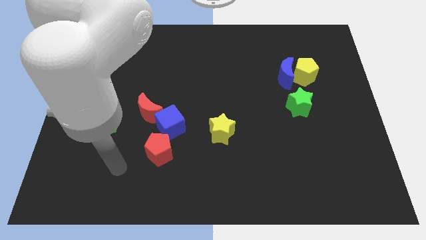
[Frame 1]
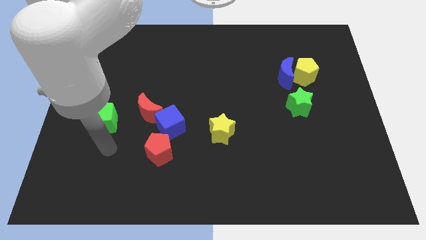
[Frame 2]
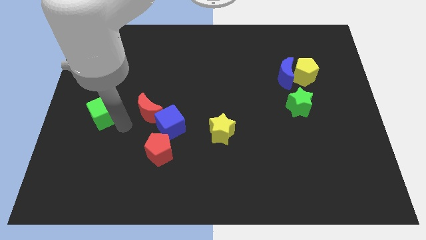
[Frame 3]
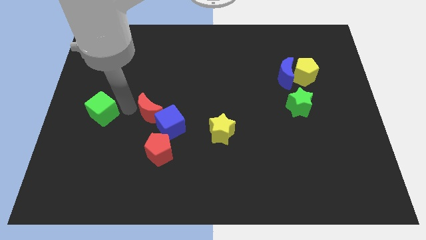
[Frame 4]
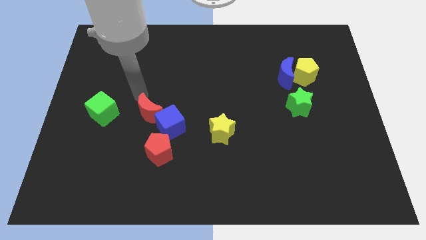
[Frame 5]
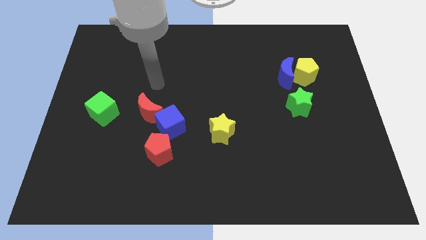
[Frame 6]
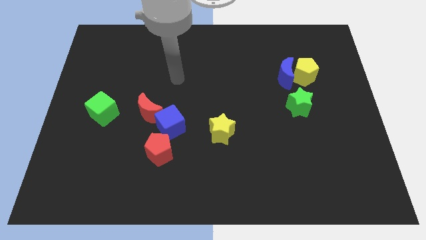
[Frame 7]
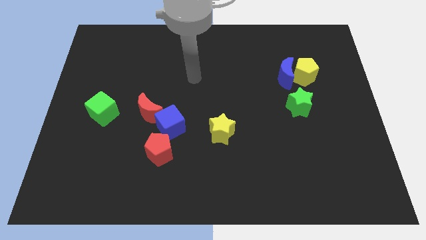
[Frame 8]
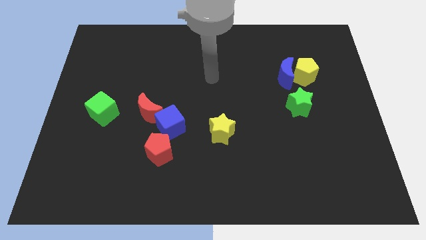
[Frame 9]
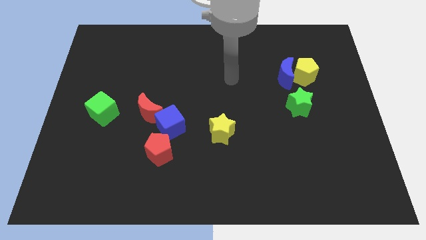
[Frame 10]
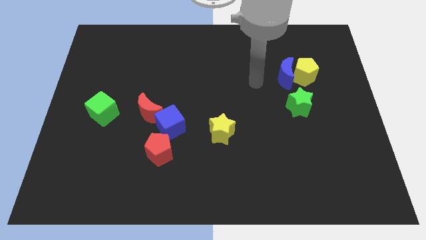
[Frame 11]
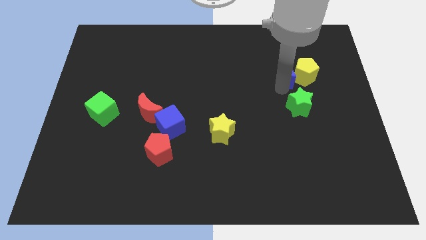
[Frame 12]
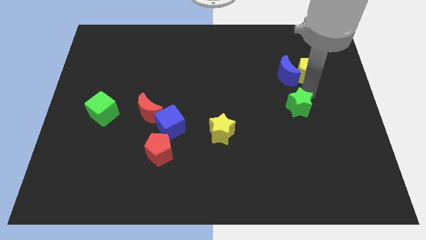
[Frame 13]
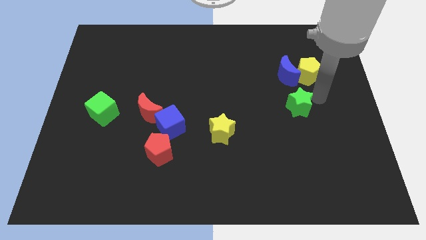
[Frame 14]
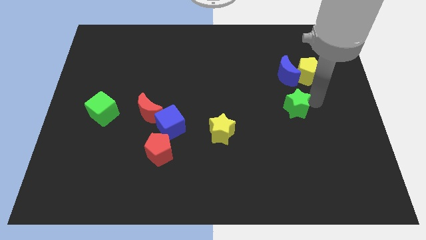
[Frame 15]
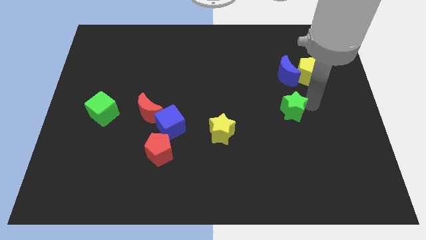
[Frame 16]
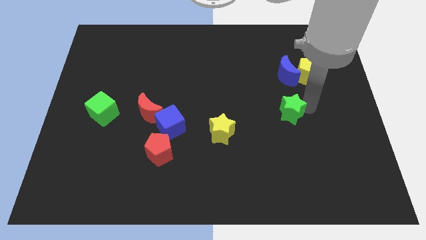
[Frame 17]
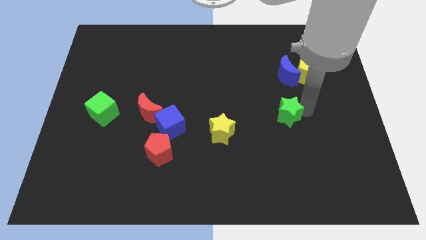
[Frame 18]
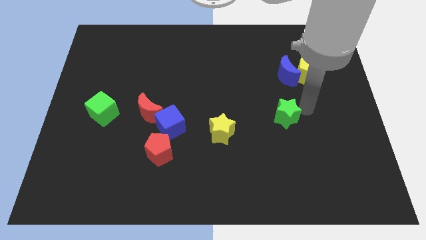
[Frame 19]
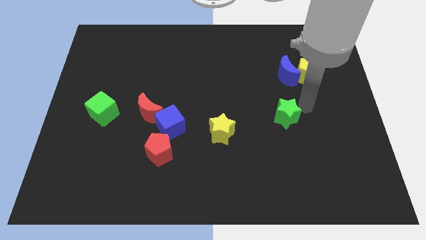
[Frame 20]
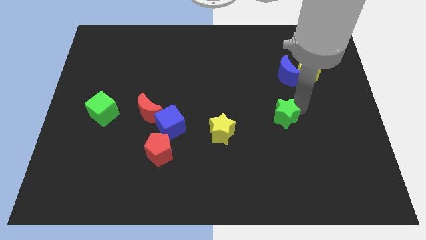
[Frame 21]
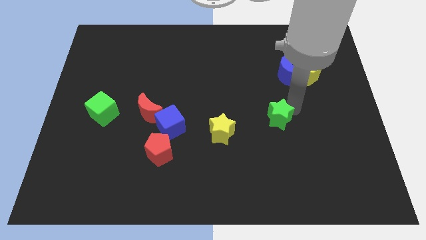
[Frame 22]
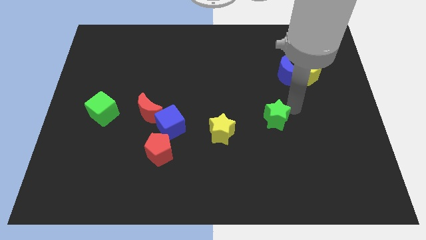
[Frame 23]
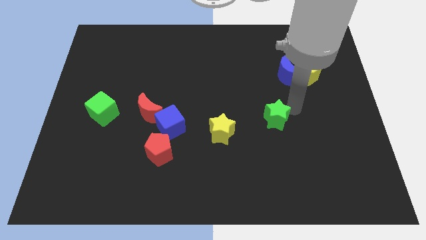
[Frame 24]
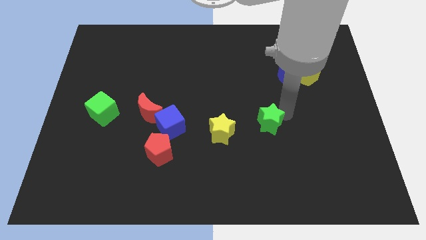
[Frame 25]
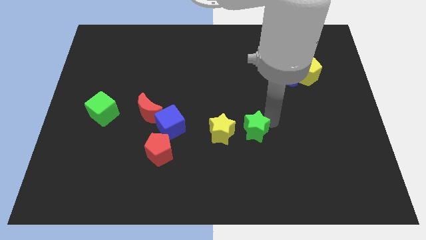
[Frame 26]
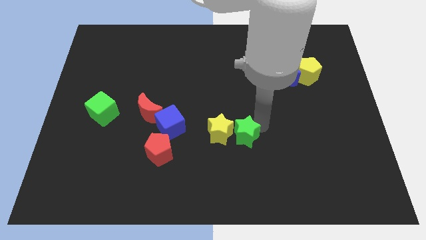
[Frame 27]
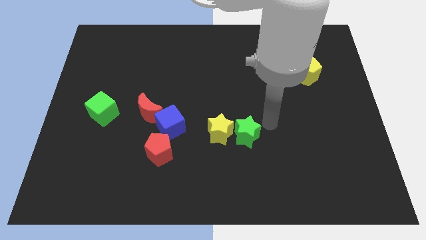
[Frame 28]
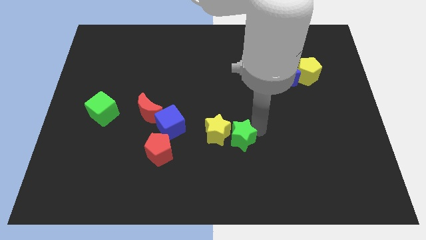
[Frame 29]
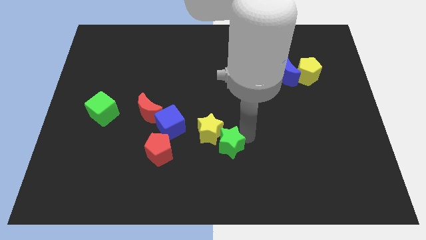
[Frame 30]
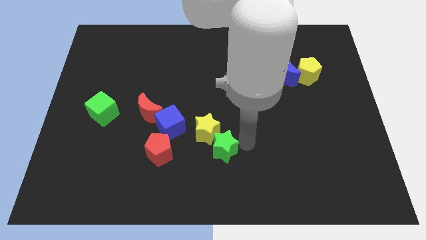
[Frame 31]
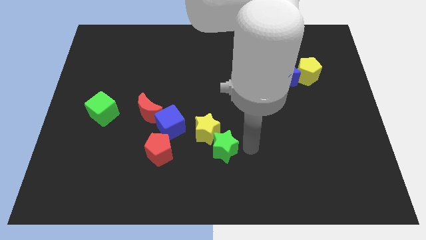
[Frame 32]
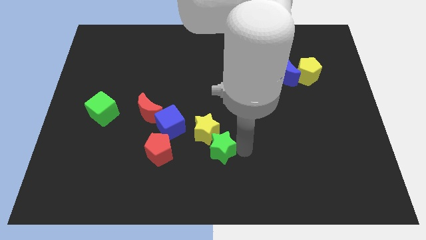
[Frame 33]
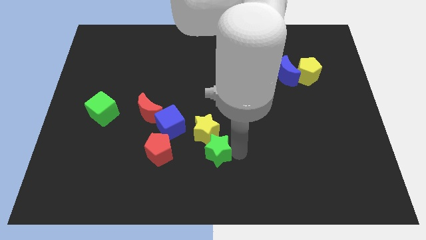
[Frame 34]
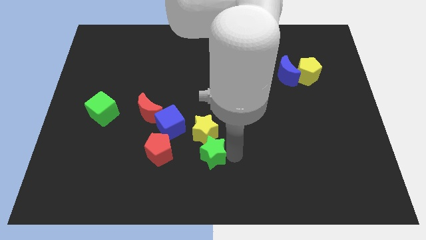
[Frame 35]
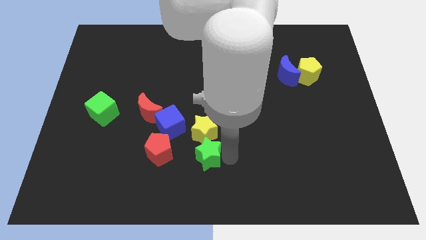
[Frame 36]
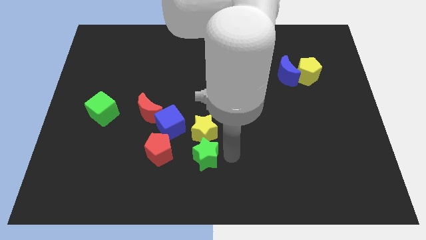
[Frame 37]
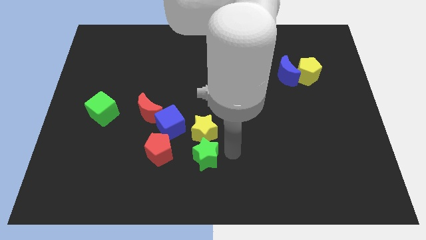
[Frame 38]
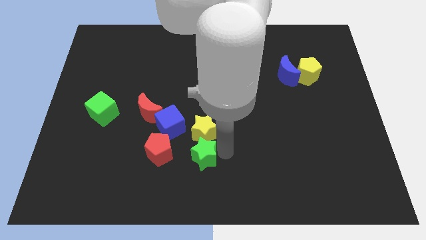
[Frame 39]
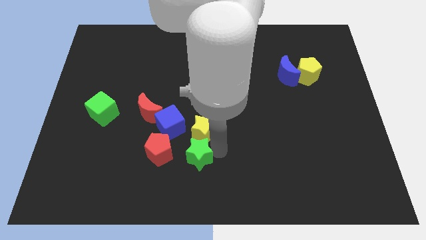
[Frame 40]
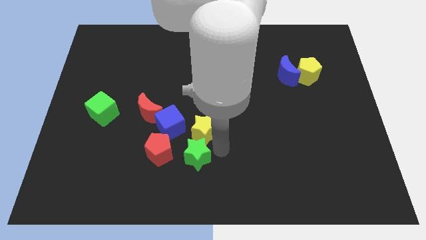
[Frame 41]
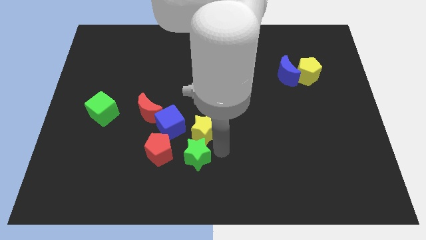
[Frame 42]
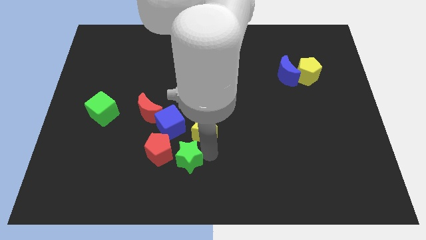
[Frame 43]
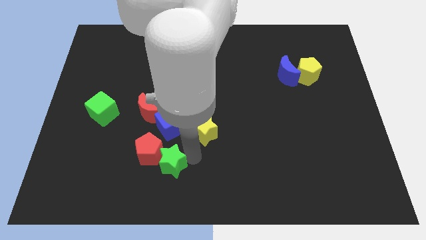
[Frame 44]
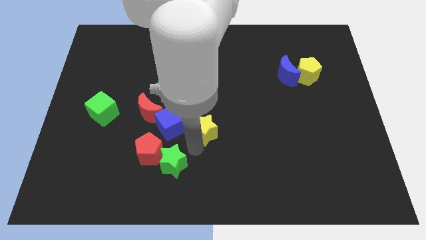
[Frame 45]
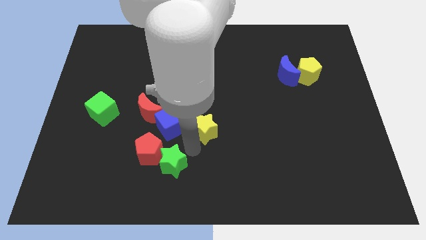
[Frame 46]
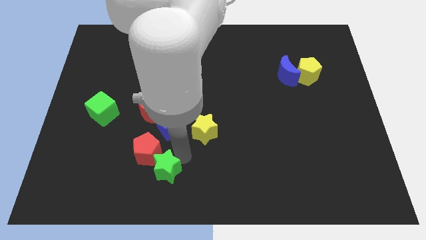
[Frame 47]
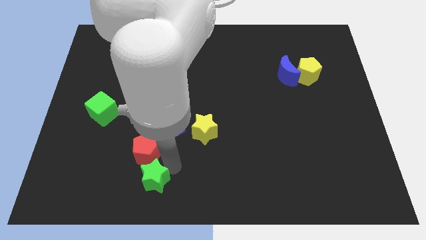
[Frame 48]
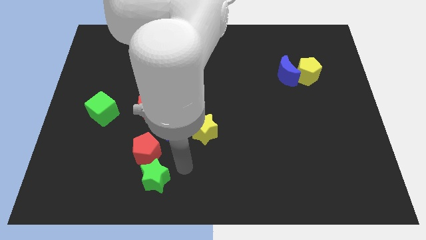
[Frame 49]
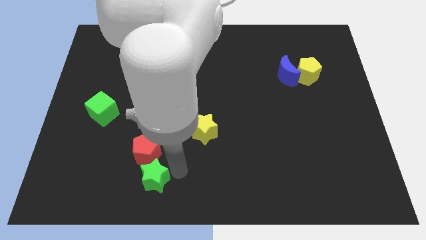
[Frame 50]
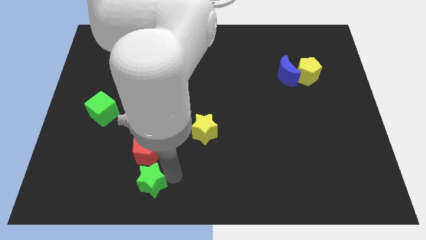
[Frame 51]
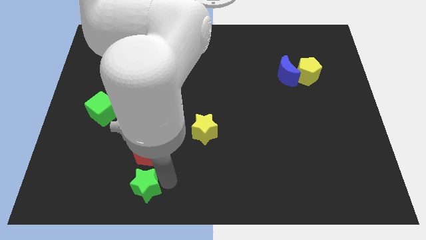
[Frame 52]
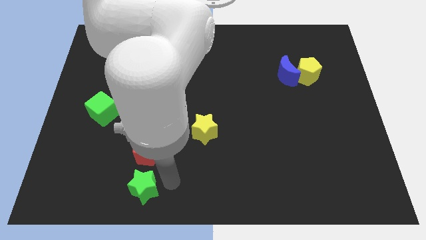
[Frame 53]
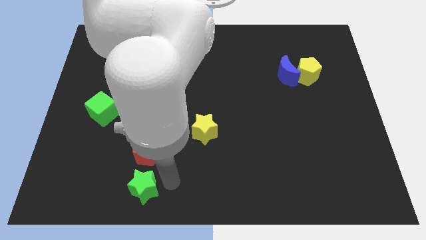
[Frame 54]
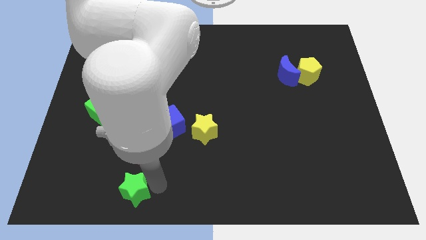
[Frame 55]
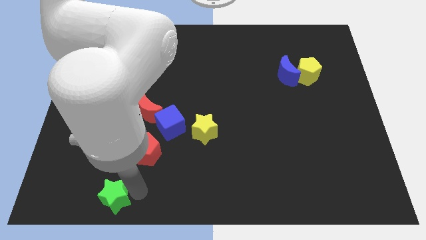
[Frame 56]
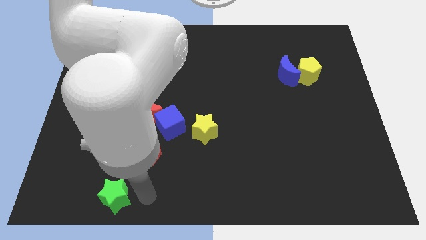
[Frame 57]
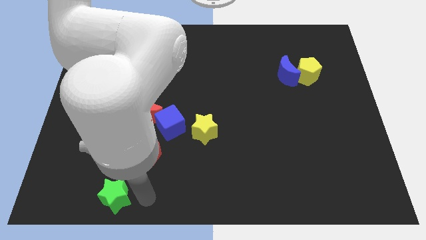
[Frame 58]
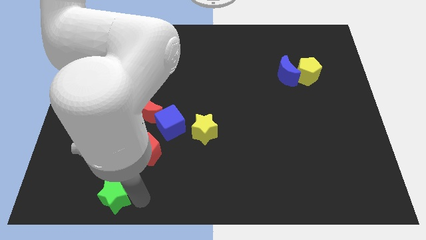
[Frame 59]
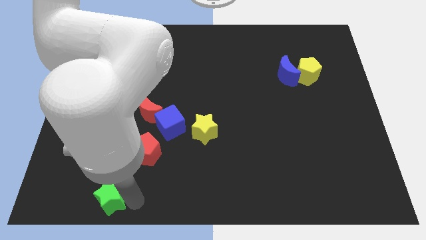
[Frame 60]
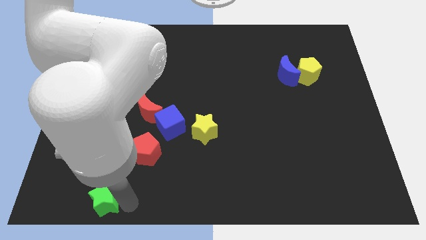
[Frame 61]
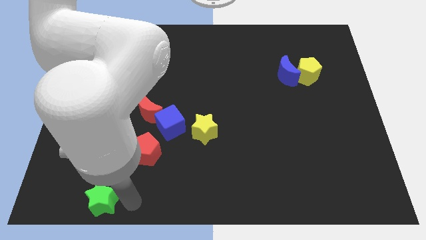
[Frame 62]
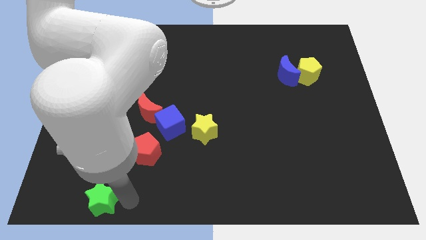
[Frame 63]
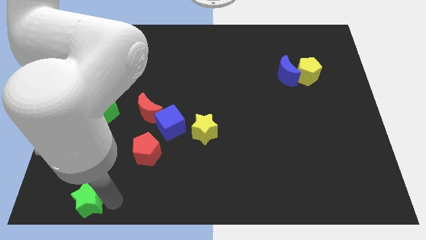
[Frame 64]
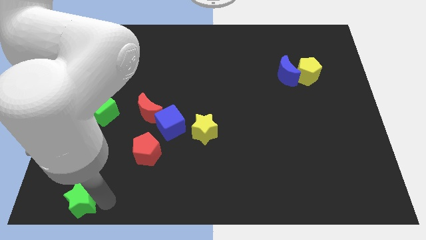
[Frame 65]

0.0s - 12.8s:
move the green star to the bottom left of the board
